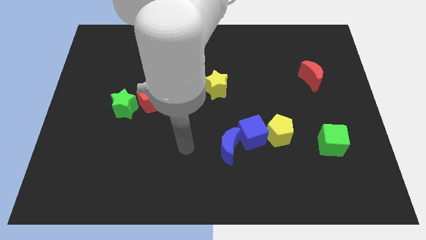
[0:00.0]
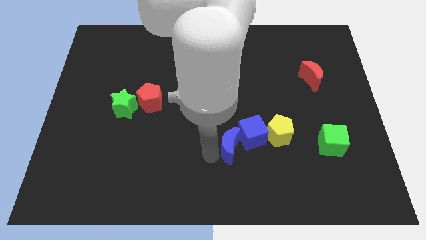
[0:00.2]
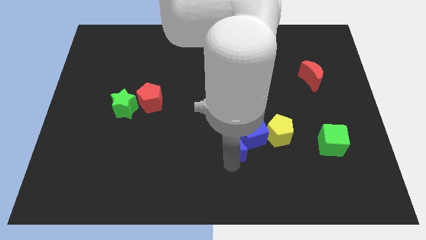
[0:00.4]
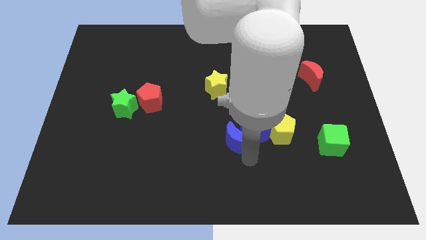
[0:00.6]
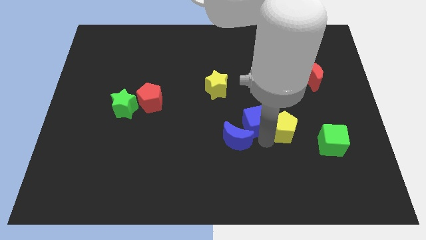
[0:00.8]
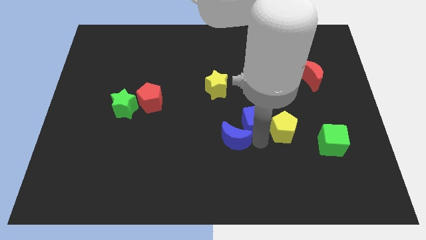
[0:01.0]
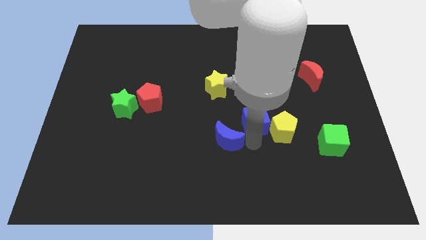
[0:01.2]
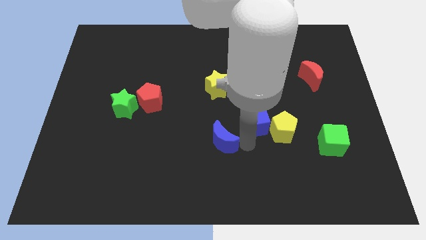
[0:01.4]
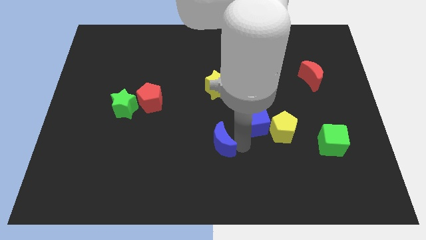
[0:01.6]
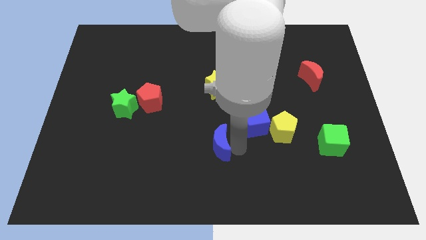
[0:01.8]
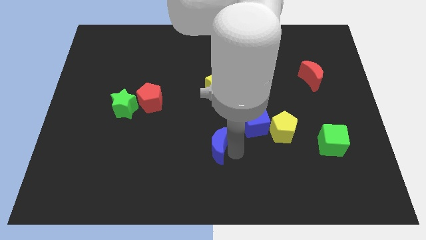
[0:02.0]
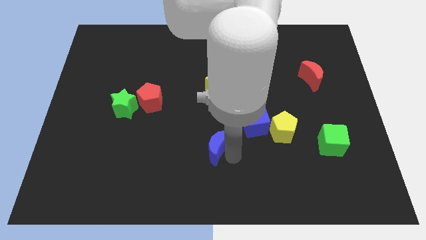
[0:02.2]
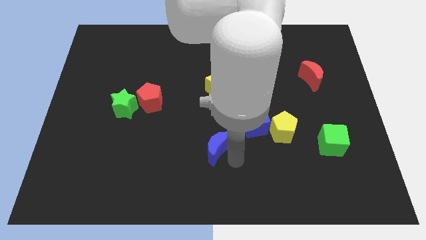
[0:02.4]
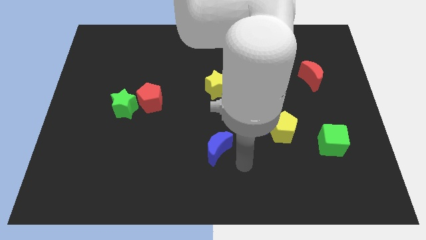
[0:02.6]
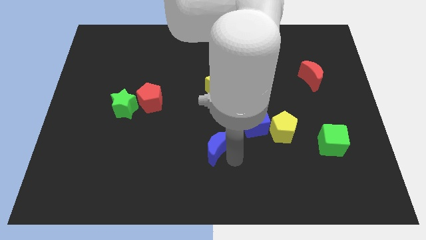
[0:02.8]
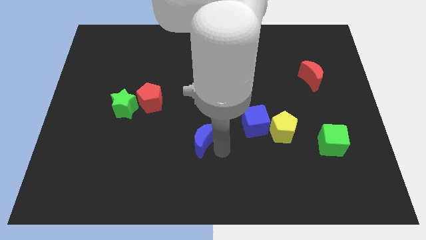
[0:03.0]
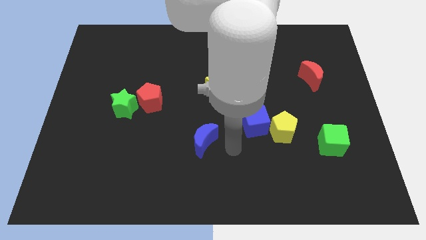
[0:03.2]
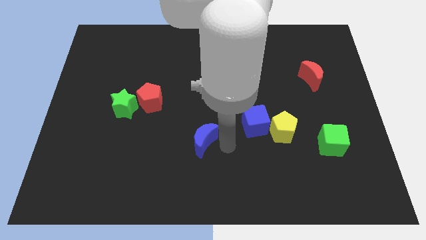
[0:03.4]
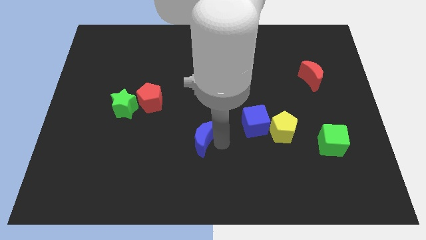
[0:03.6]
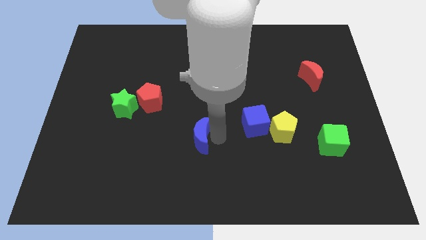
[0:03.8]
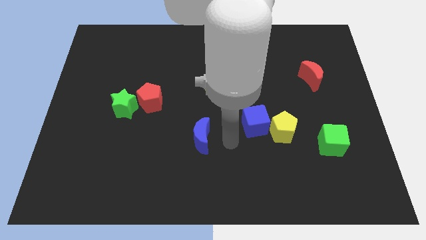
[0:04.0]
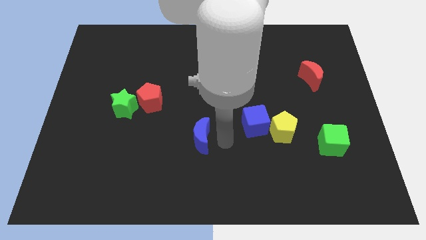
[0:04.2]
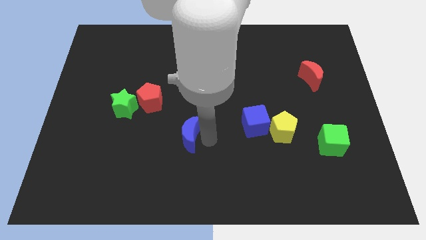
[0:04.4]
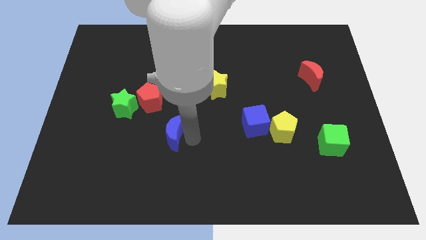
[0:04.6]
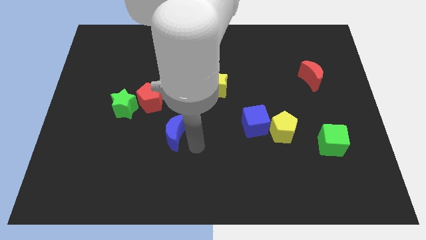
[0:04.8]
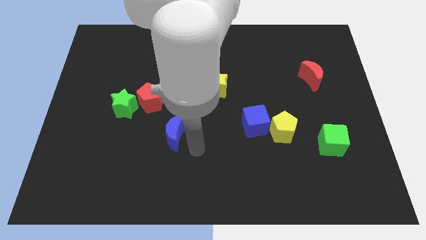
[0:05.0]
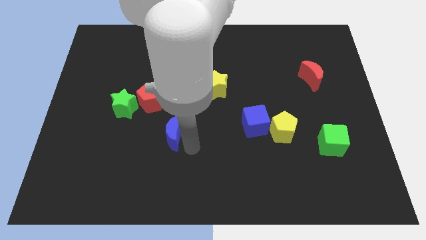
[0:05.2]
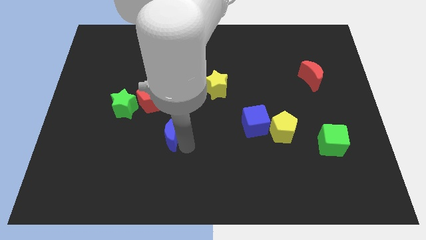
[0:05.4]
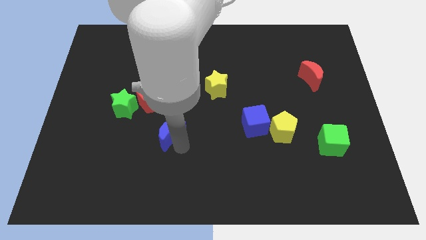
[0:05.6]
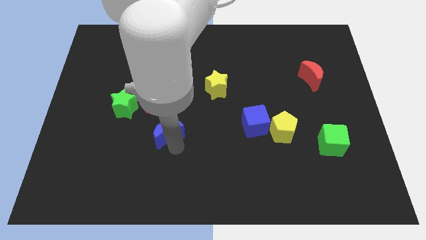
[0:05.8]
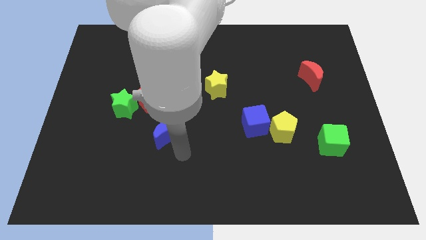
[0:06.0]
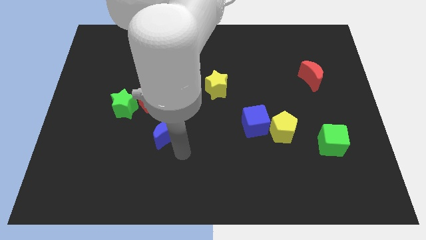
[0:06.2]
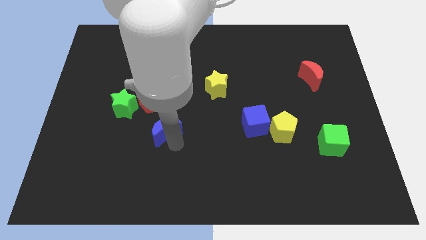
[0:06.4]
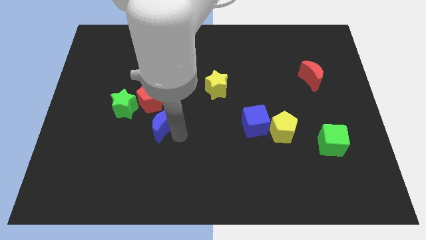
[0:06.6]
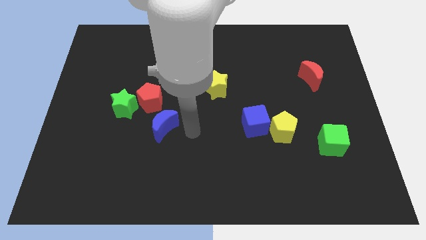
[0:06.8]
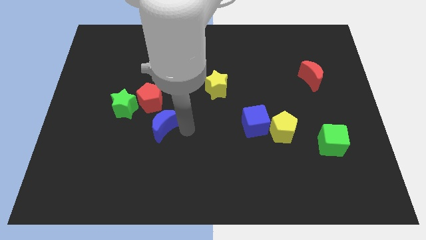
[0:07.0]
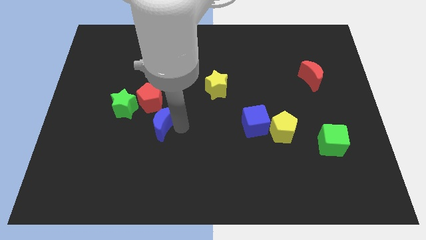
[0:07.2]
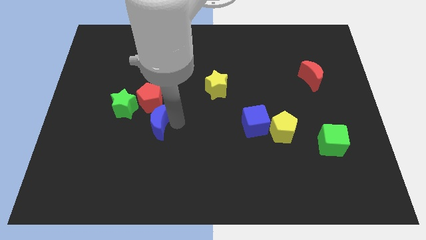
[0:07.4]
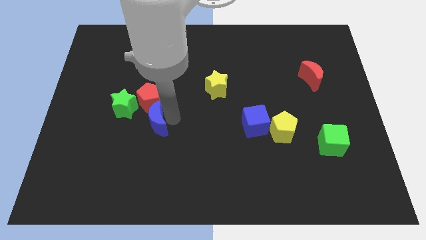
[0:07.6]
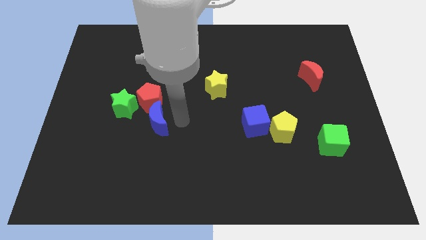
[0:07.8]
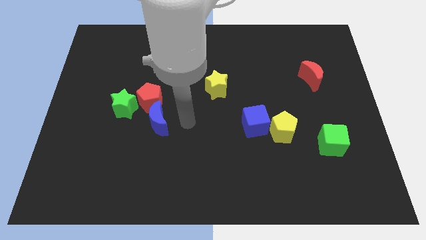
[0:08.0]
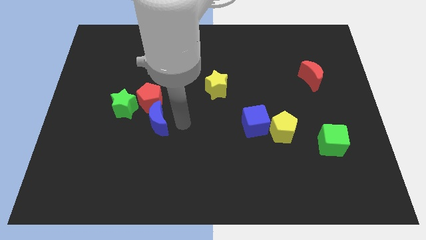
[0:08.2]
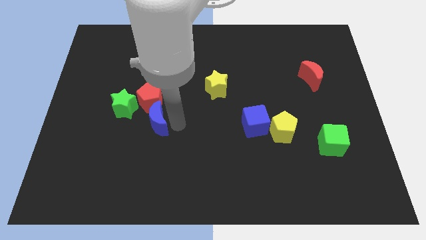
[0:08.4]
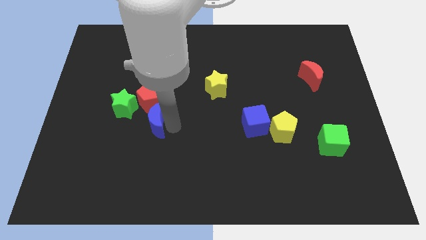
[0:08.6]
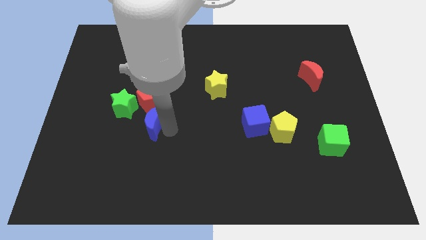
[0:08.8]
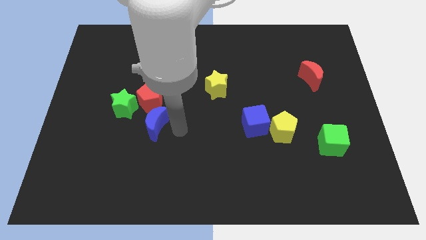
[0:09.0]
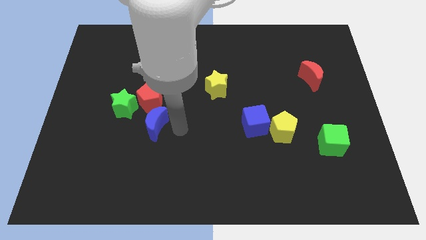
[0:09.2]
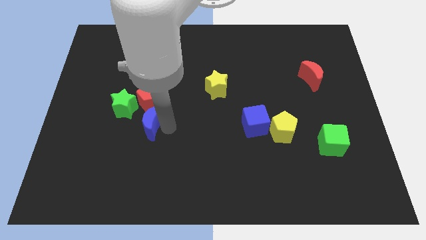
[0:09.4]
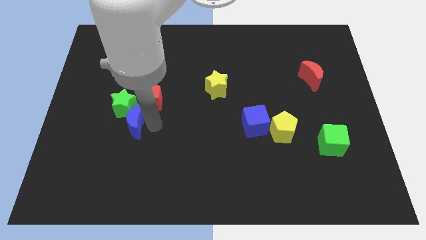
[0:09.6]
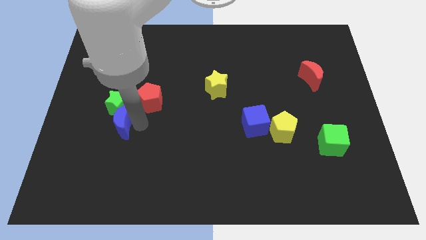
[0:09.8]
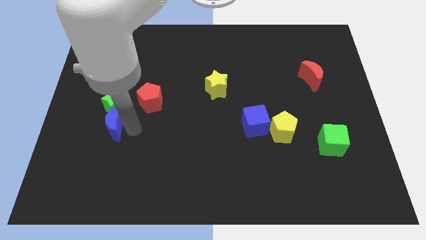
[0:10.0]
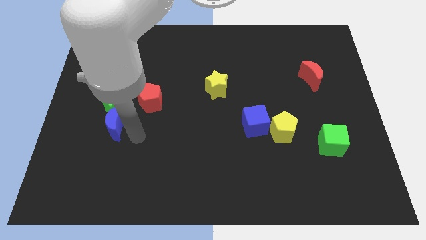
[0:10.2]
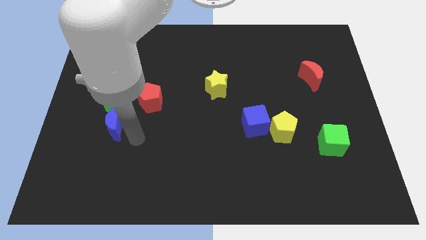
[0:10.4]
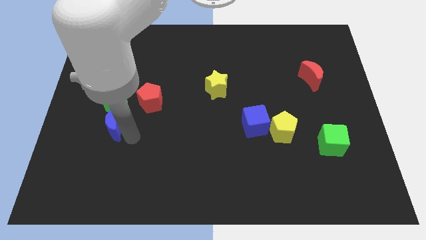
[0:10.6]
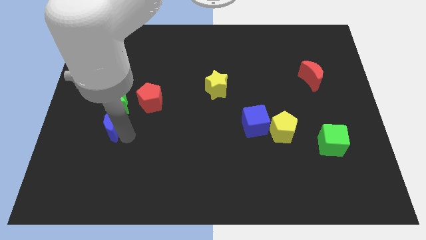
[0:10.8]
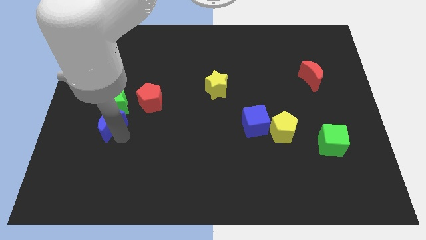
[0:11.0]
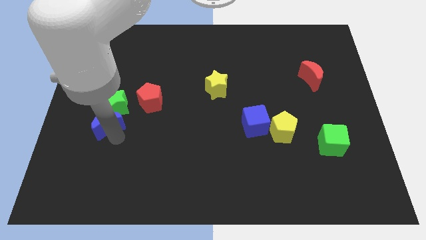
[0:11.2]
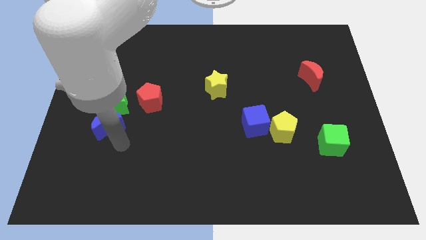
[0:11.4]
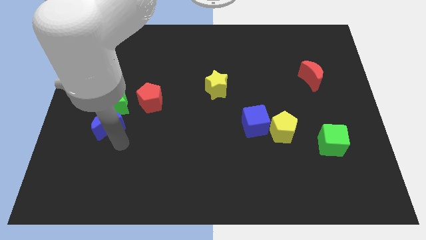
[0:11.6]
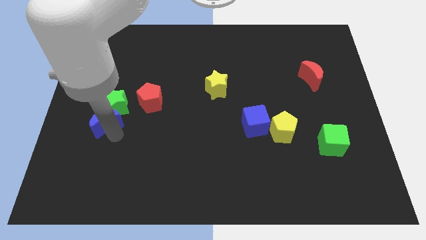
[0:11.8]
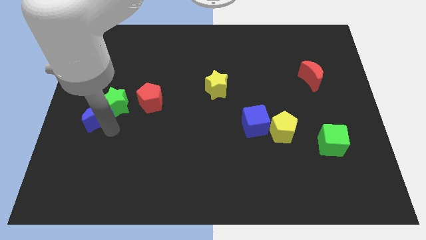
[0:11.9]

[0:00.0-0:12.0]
push the blue moon to the left side of the board
